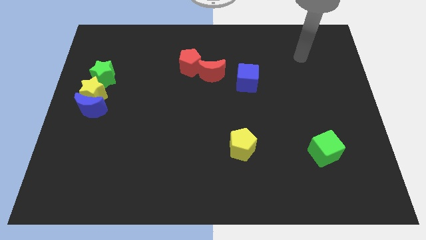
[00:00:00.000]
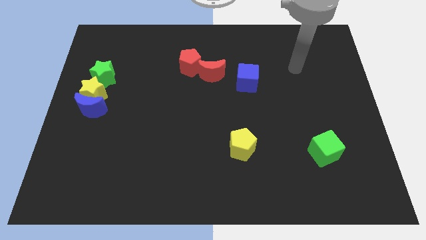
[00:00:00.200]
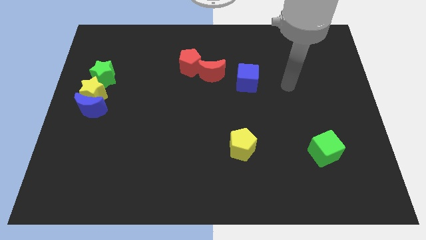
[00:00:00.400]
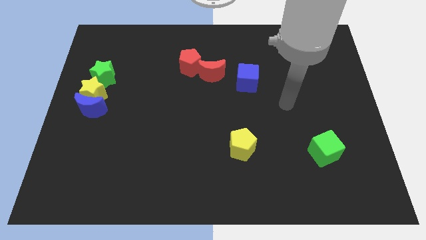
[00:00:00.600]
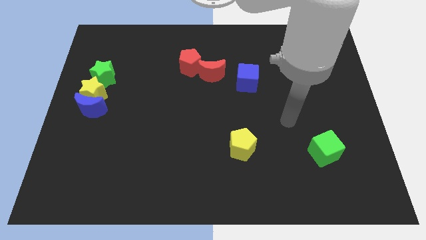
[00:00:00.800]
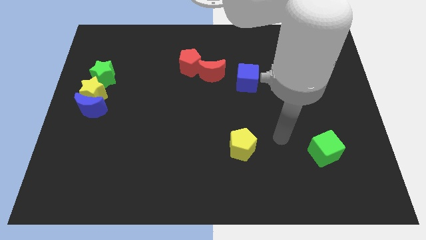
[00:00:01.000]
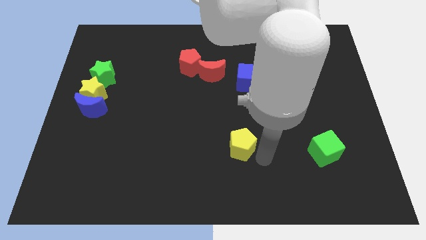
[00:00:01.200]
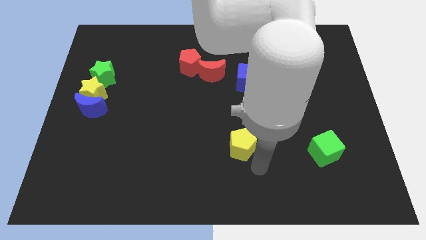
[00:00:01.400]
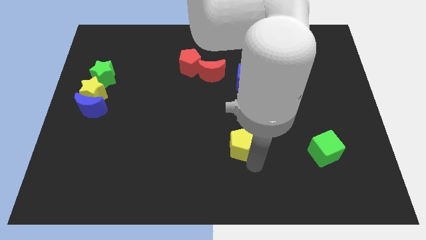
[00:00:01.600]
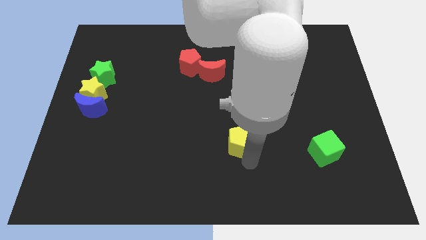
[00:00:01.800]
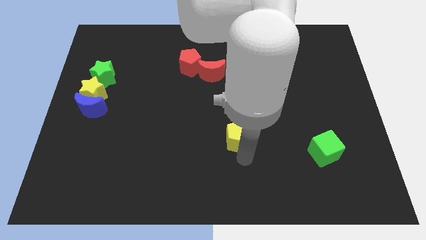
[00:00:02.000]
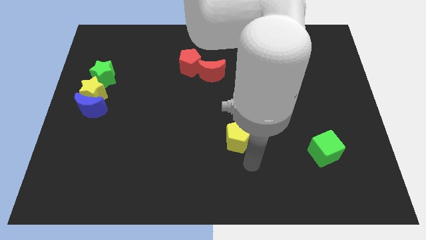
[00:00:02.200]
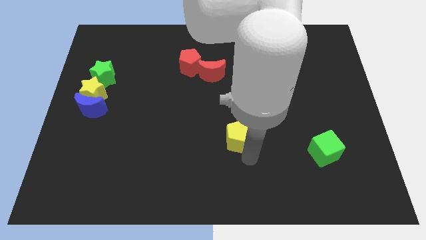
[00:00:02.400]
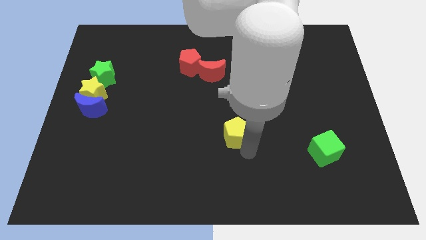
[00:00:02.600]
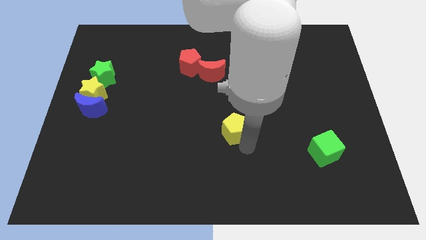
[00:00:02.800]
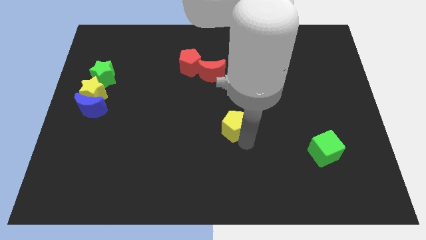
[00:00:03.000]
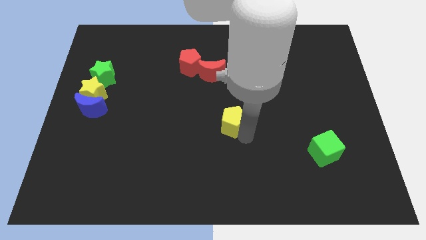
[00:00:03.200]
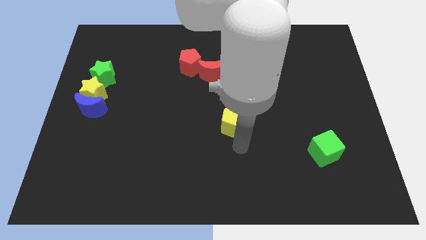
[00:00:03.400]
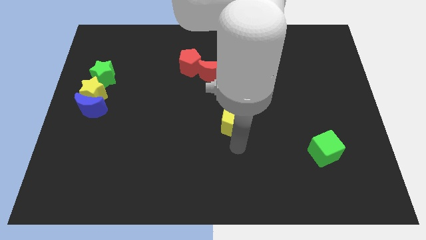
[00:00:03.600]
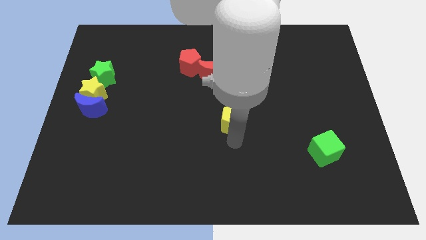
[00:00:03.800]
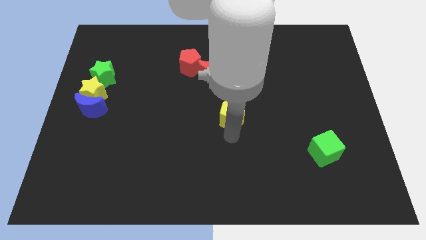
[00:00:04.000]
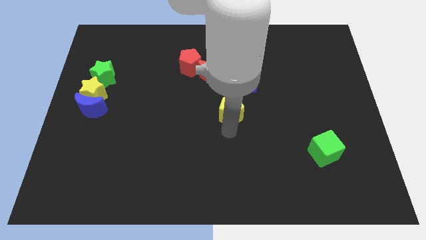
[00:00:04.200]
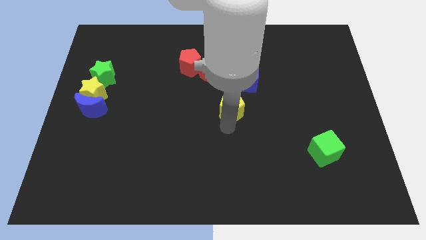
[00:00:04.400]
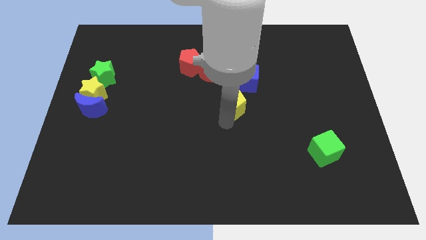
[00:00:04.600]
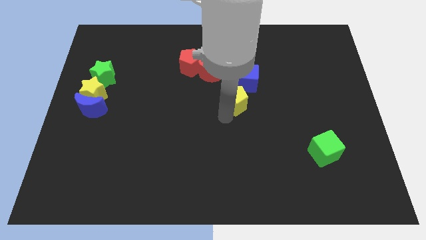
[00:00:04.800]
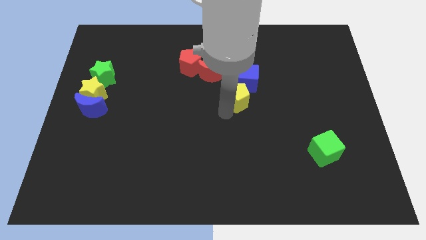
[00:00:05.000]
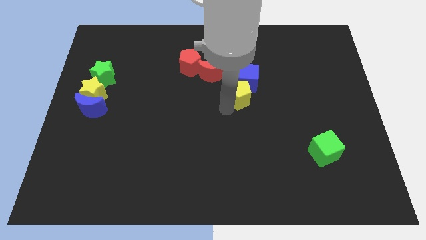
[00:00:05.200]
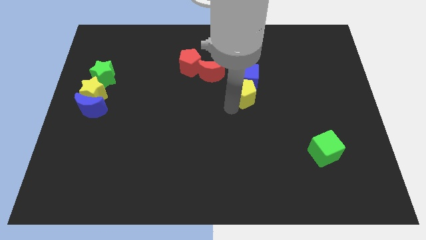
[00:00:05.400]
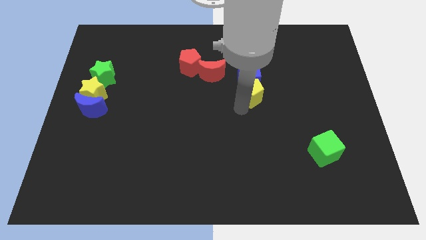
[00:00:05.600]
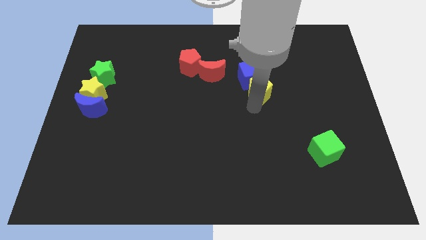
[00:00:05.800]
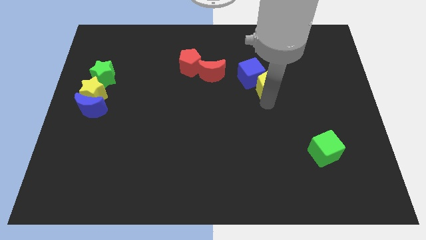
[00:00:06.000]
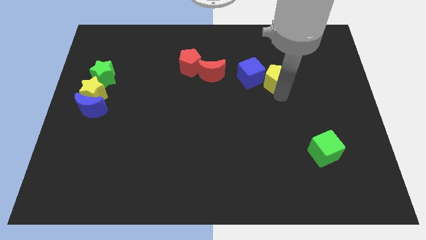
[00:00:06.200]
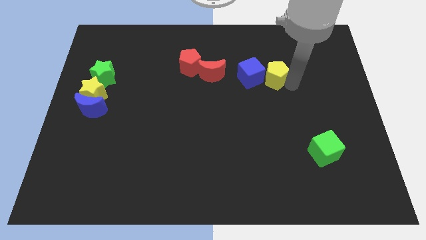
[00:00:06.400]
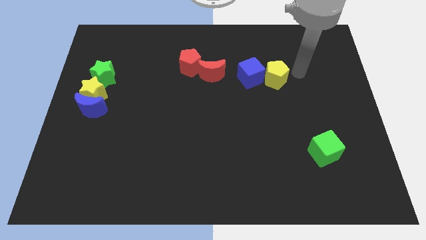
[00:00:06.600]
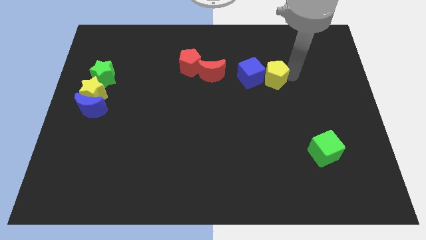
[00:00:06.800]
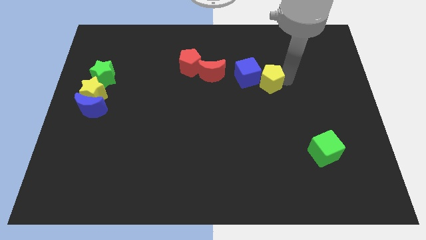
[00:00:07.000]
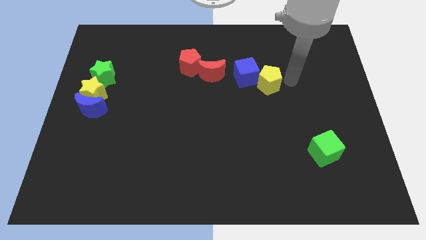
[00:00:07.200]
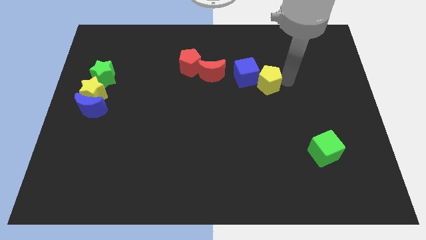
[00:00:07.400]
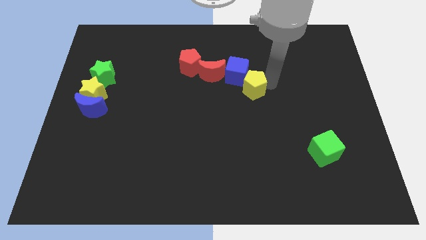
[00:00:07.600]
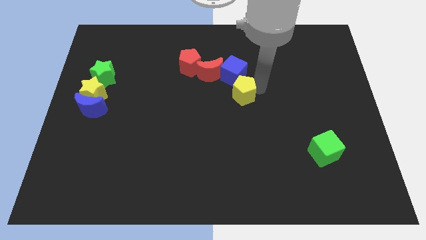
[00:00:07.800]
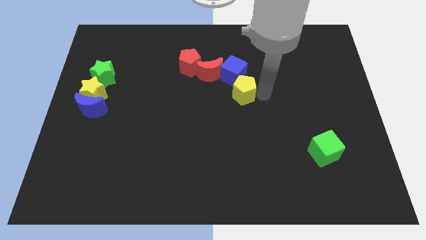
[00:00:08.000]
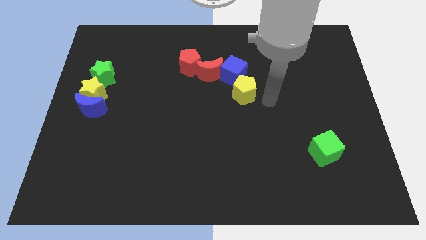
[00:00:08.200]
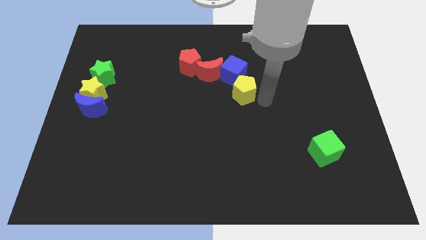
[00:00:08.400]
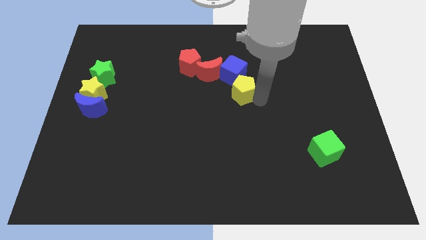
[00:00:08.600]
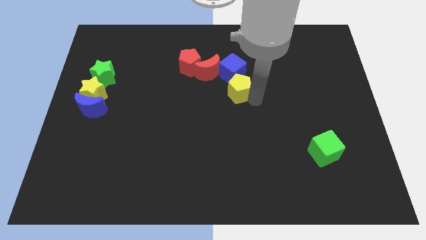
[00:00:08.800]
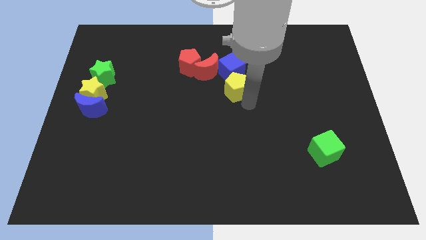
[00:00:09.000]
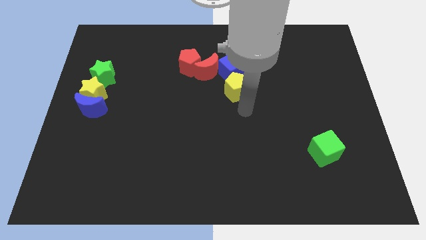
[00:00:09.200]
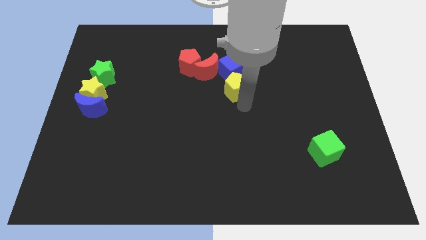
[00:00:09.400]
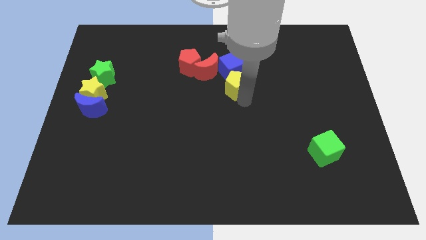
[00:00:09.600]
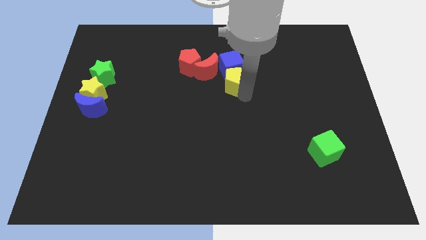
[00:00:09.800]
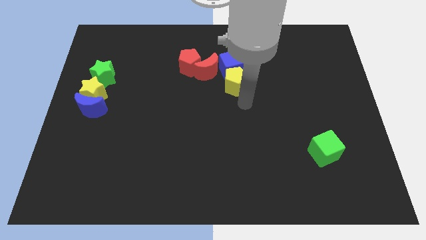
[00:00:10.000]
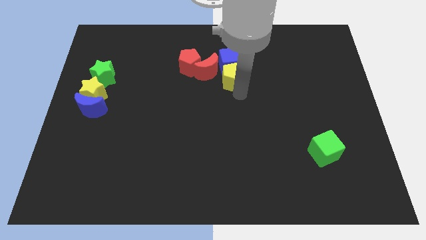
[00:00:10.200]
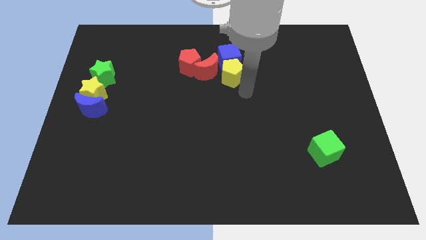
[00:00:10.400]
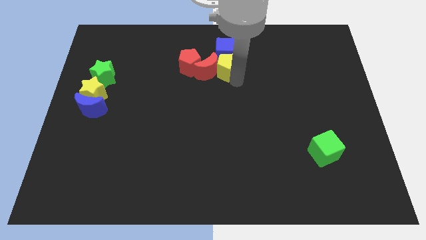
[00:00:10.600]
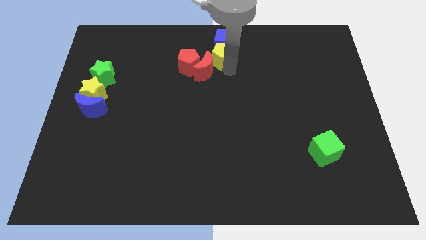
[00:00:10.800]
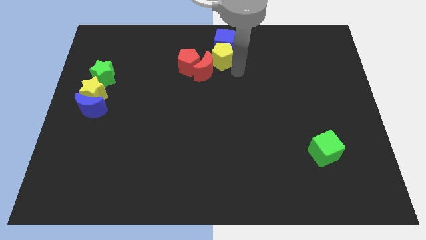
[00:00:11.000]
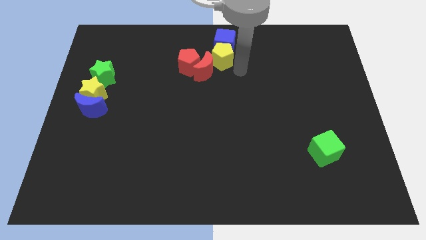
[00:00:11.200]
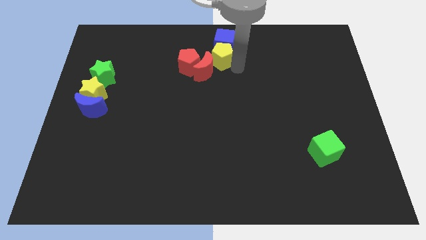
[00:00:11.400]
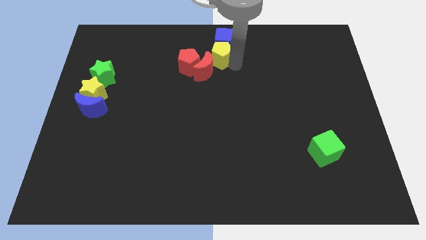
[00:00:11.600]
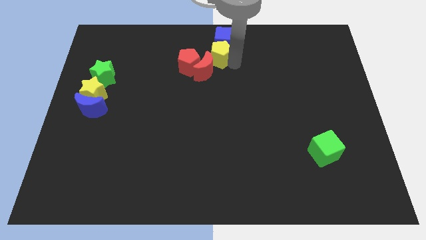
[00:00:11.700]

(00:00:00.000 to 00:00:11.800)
push the yellow pentagon to the towards your base
